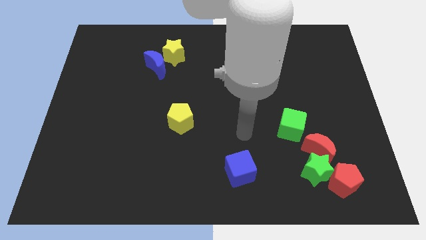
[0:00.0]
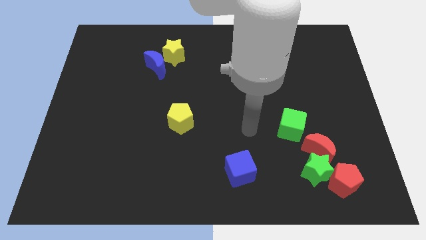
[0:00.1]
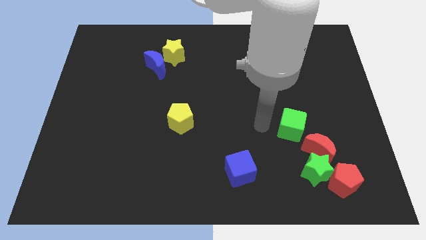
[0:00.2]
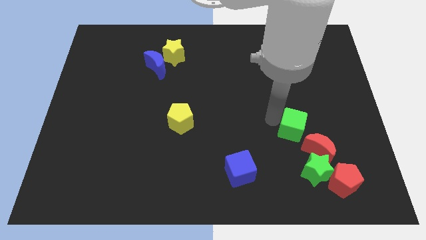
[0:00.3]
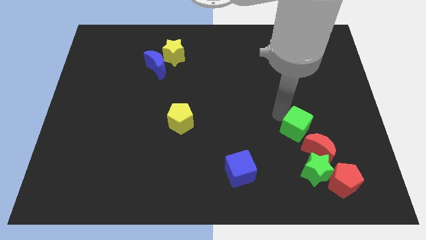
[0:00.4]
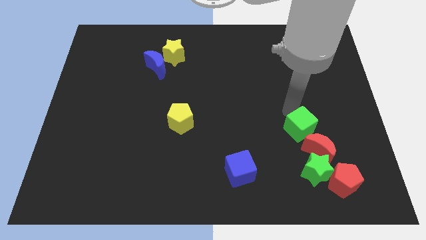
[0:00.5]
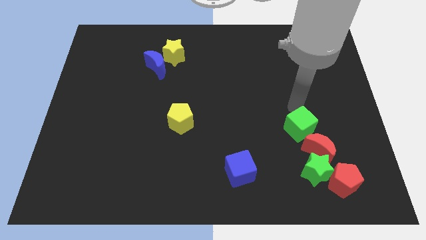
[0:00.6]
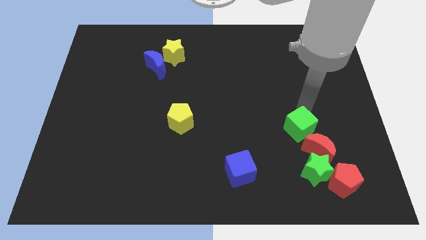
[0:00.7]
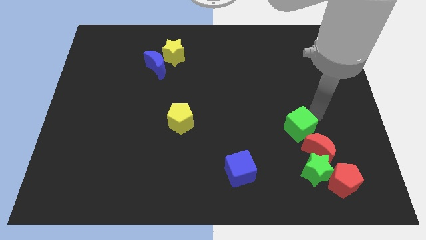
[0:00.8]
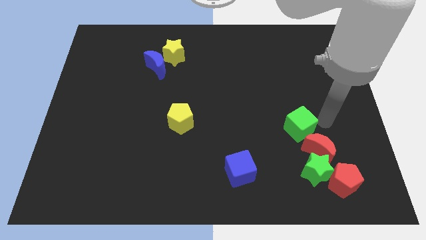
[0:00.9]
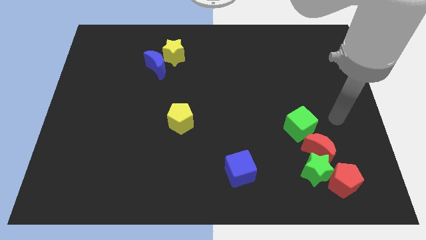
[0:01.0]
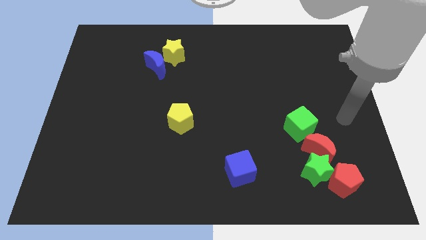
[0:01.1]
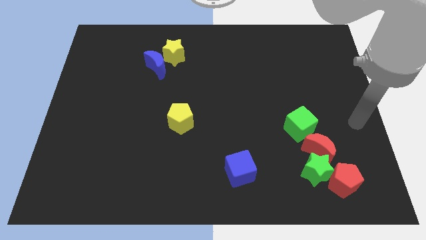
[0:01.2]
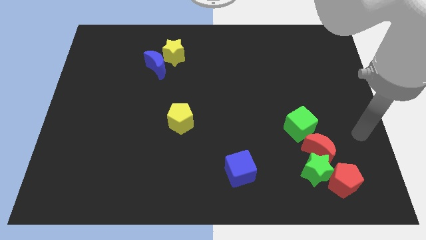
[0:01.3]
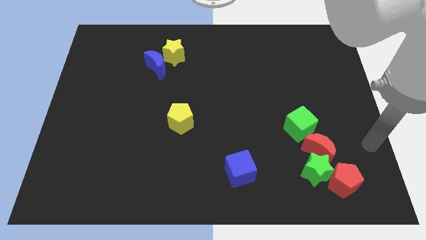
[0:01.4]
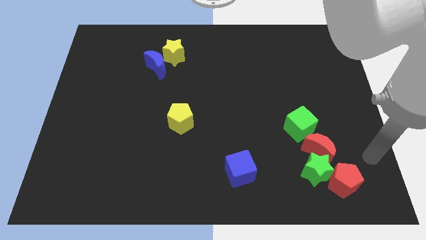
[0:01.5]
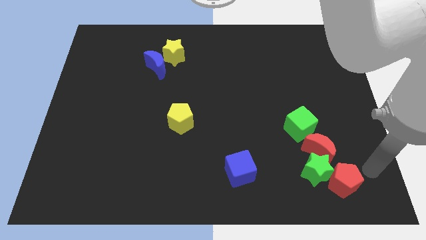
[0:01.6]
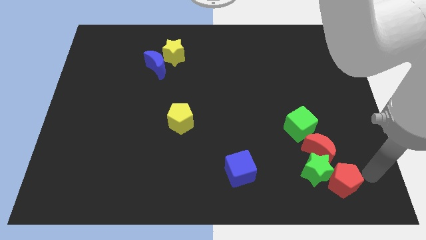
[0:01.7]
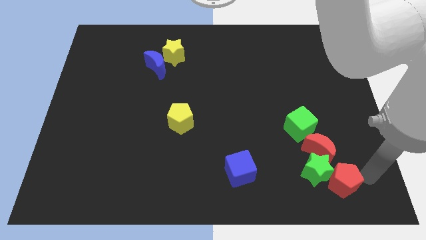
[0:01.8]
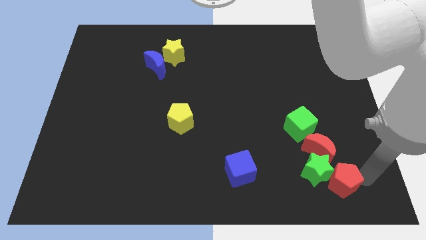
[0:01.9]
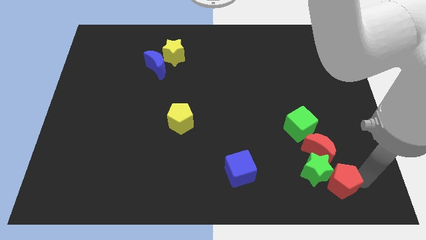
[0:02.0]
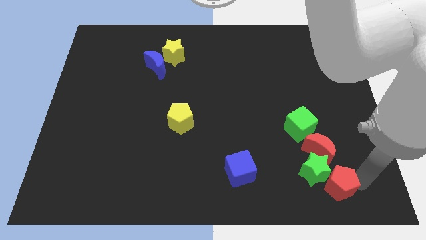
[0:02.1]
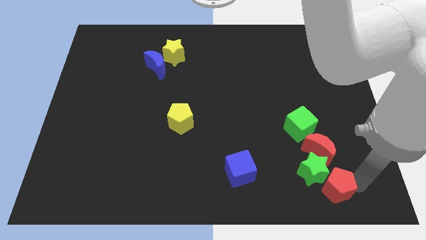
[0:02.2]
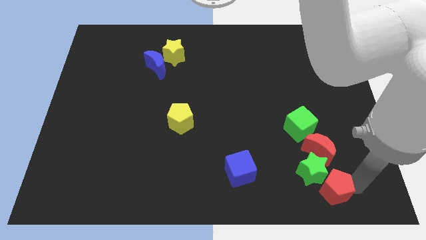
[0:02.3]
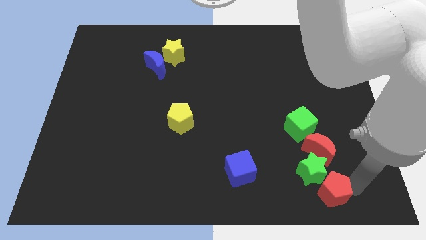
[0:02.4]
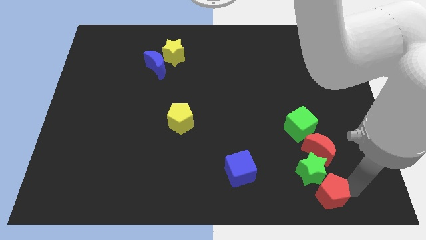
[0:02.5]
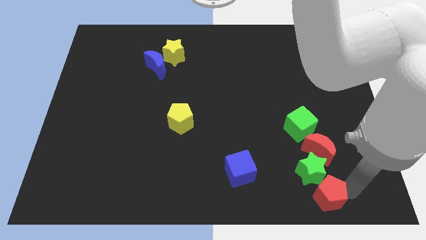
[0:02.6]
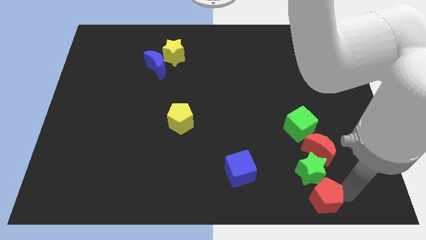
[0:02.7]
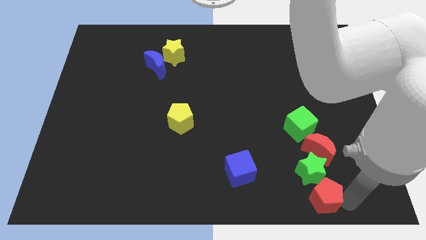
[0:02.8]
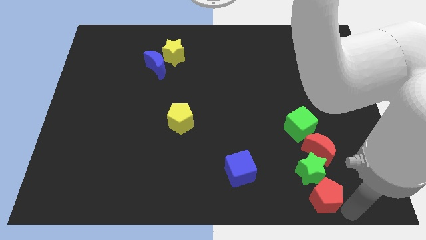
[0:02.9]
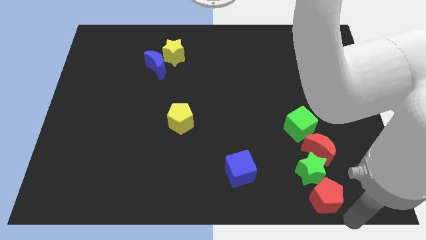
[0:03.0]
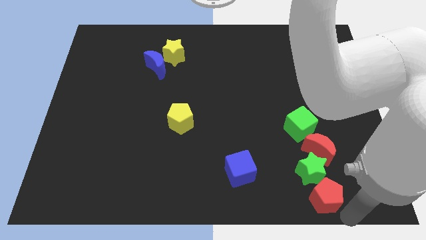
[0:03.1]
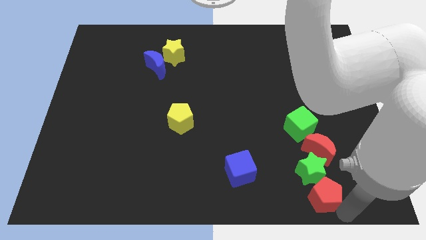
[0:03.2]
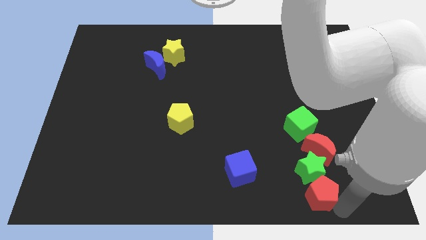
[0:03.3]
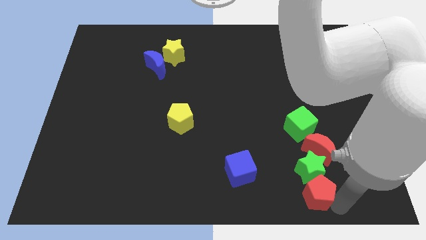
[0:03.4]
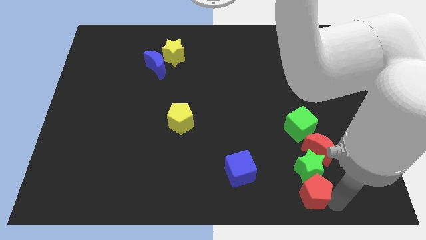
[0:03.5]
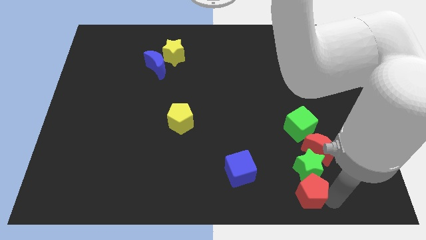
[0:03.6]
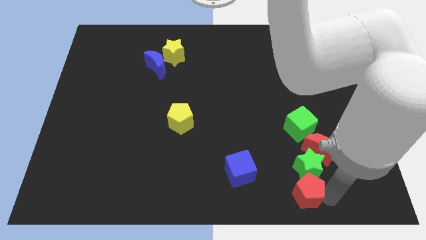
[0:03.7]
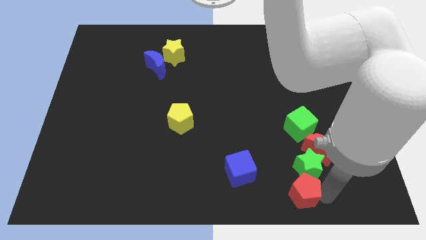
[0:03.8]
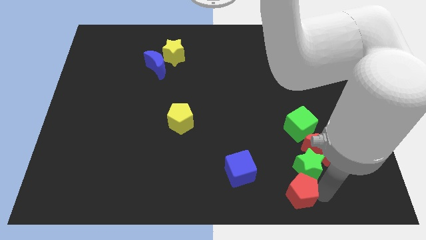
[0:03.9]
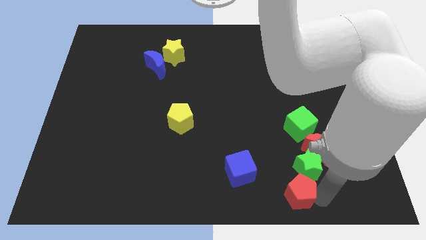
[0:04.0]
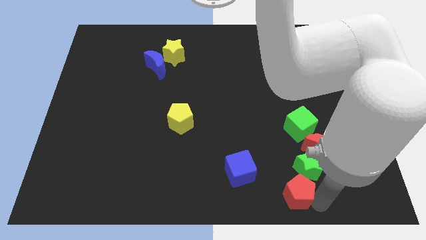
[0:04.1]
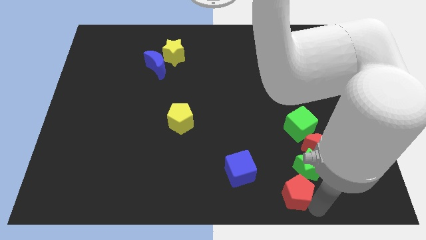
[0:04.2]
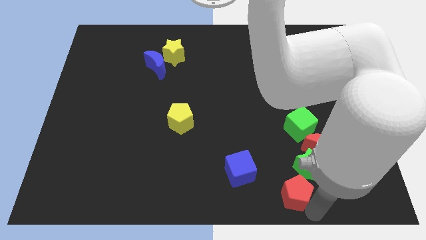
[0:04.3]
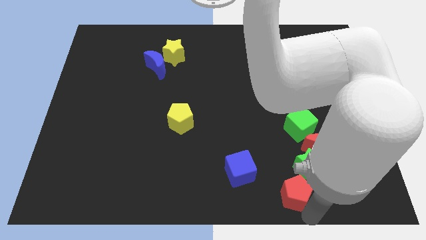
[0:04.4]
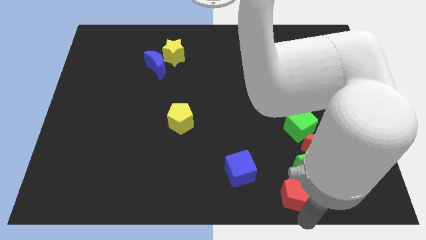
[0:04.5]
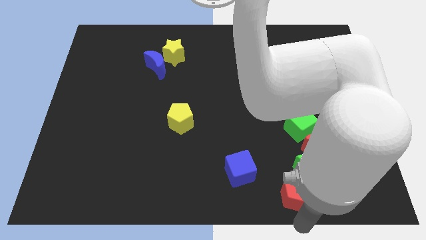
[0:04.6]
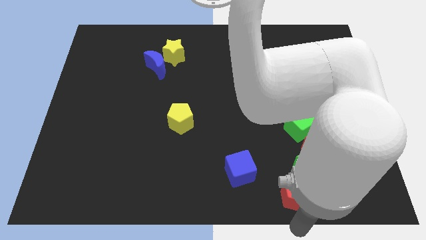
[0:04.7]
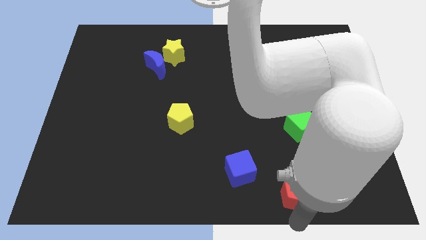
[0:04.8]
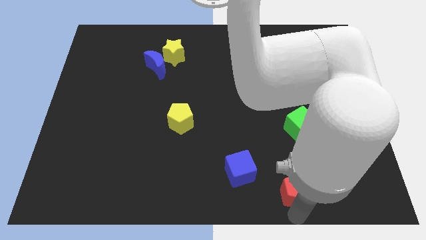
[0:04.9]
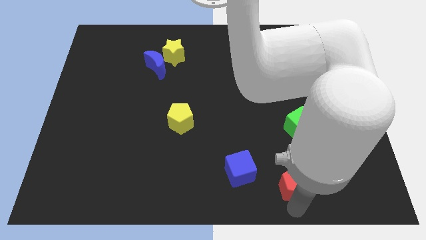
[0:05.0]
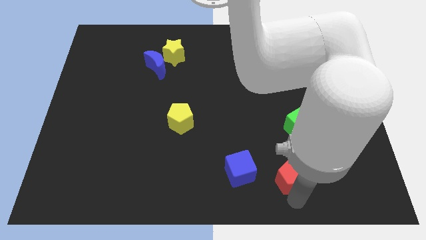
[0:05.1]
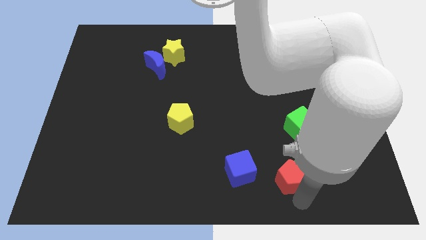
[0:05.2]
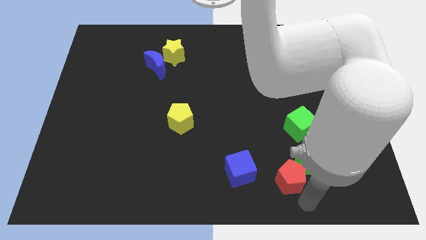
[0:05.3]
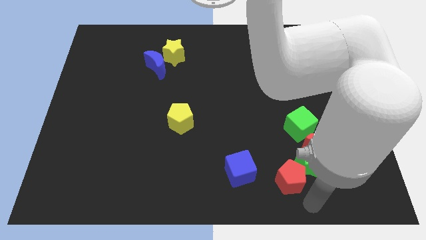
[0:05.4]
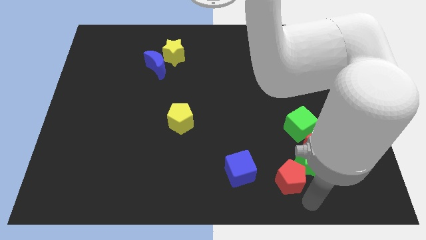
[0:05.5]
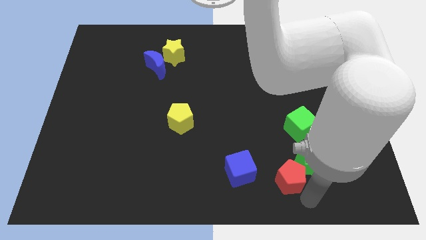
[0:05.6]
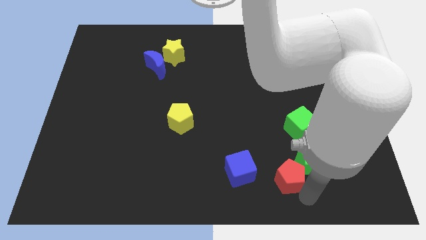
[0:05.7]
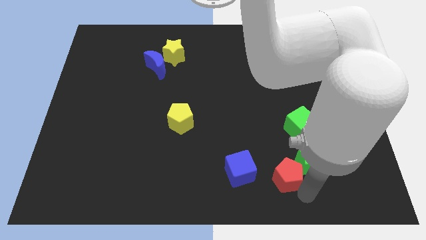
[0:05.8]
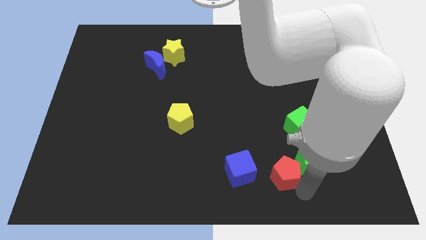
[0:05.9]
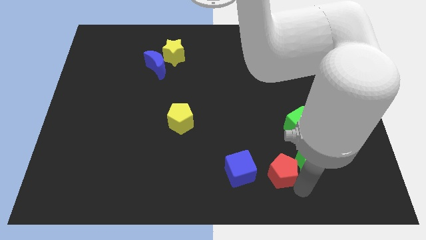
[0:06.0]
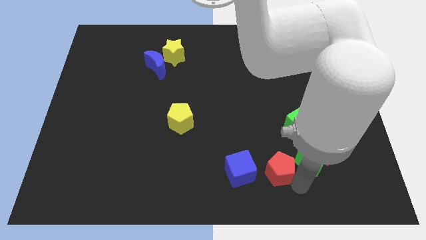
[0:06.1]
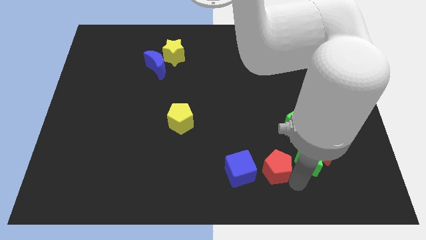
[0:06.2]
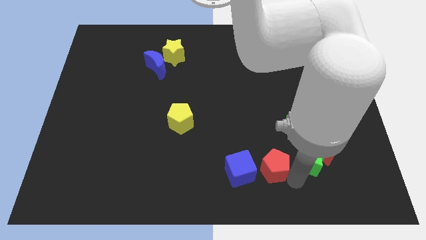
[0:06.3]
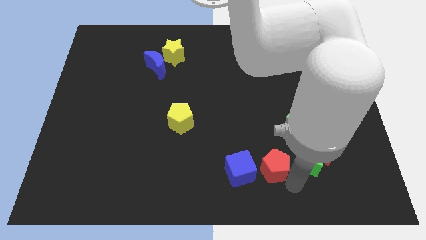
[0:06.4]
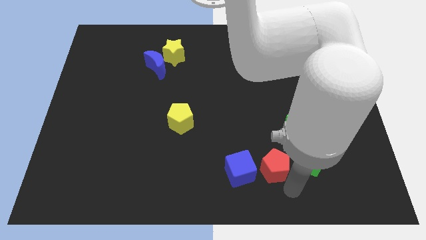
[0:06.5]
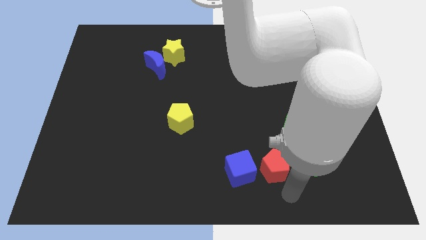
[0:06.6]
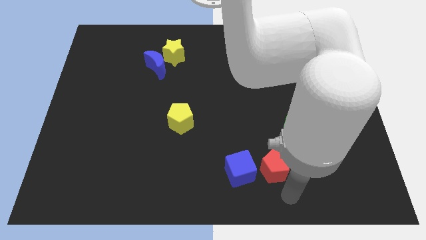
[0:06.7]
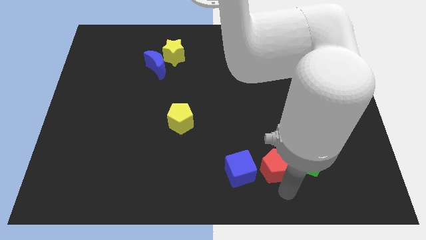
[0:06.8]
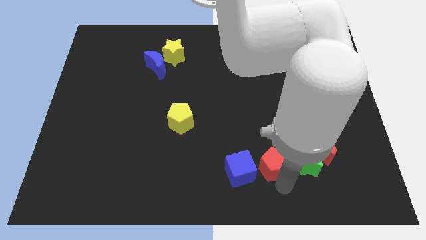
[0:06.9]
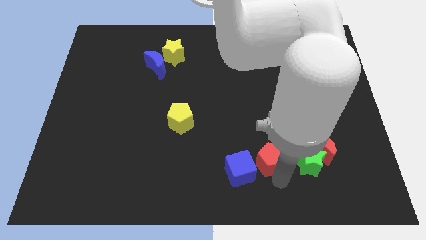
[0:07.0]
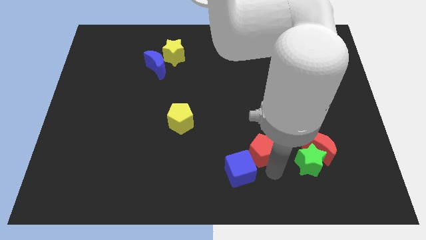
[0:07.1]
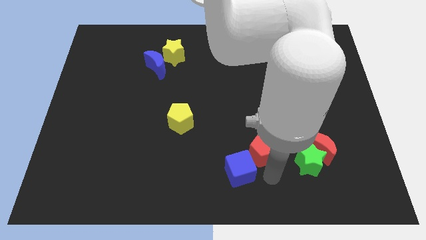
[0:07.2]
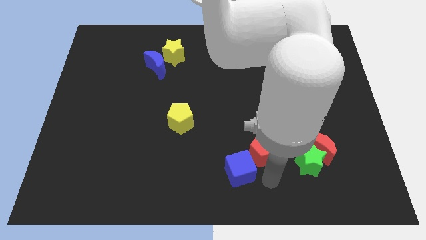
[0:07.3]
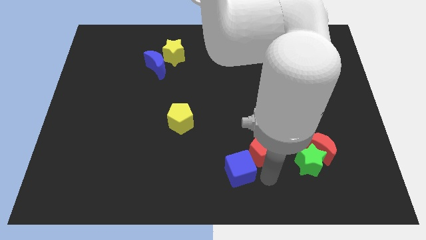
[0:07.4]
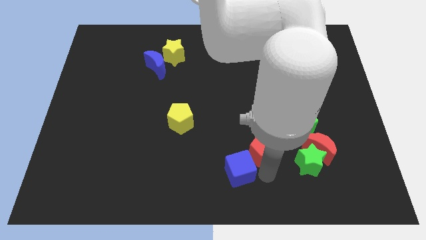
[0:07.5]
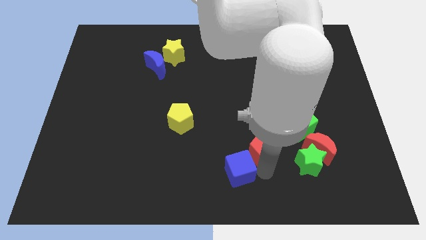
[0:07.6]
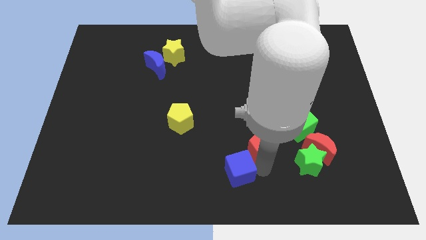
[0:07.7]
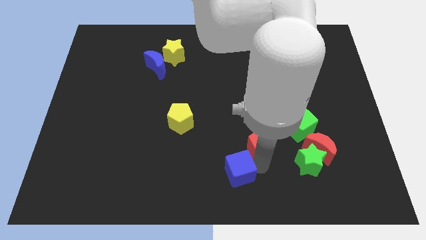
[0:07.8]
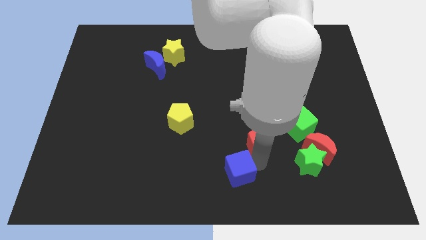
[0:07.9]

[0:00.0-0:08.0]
slide the red pentagon to the left side of the green cube
